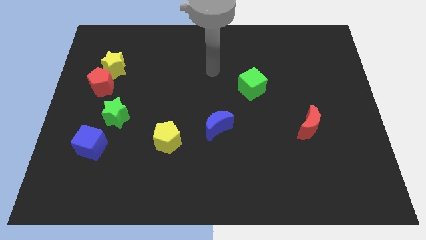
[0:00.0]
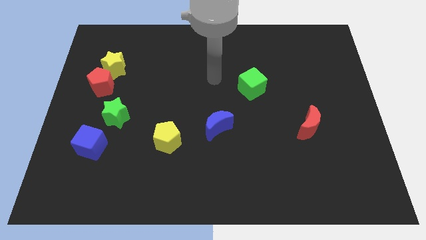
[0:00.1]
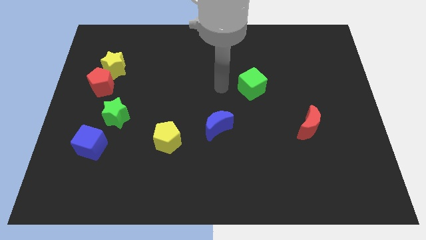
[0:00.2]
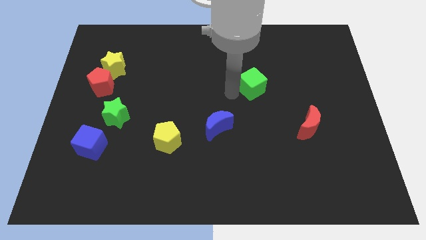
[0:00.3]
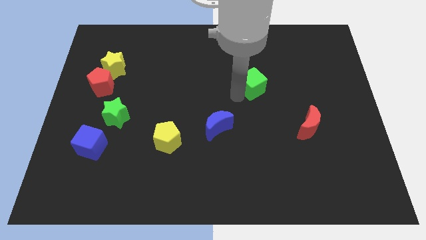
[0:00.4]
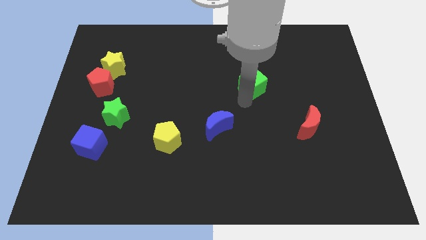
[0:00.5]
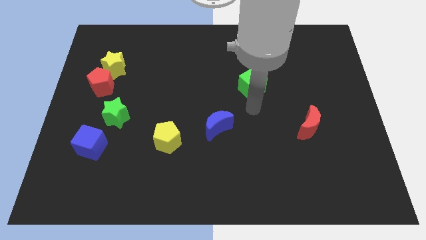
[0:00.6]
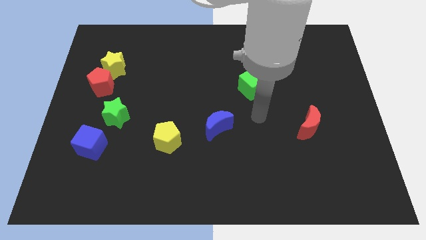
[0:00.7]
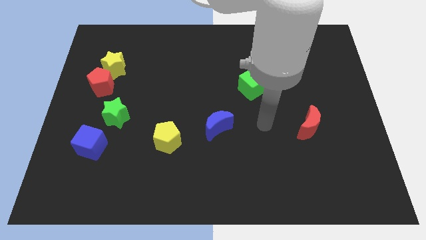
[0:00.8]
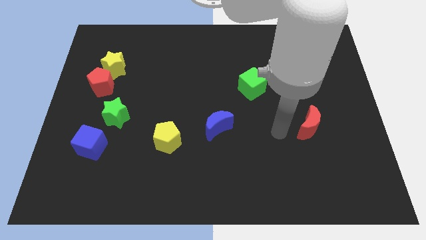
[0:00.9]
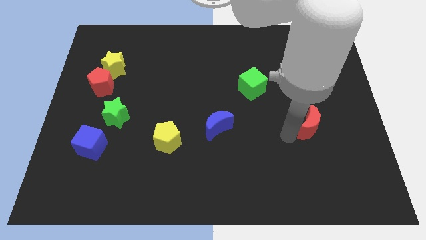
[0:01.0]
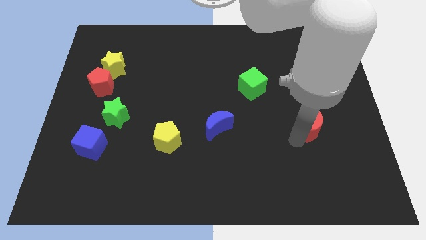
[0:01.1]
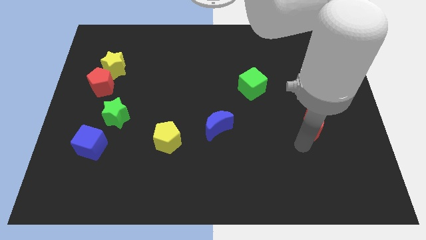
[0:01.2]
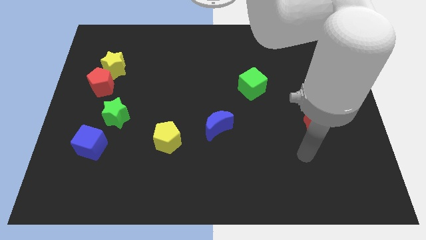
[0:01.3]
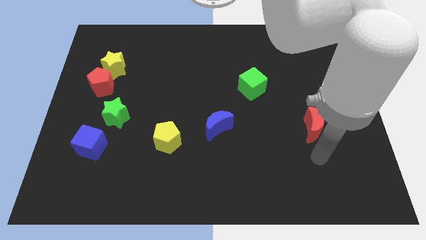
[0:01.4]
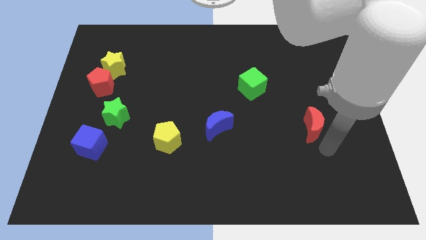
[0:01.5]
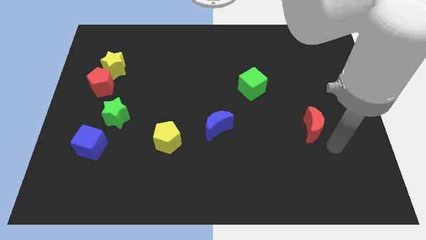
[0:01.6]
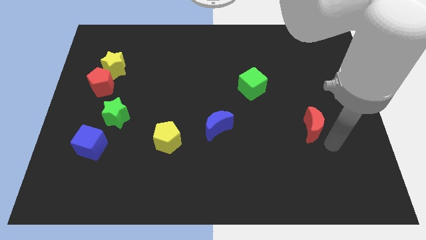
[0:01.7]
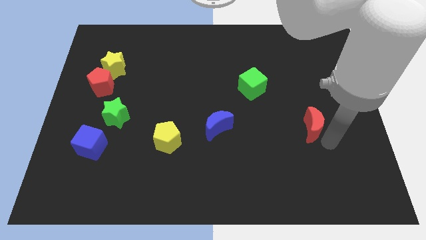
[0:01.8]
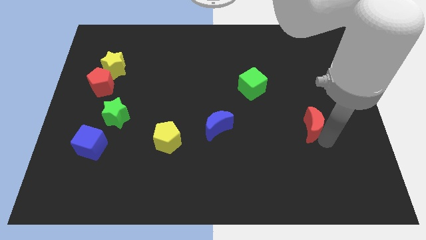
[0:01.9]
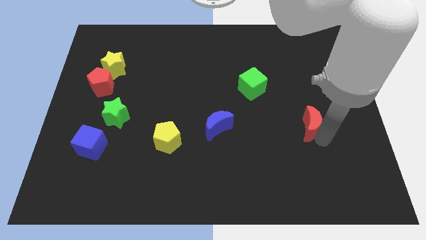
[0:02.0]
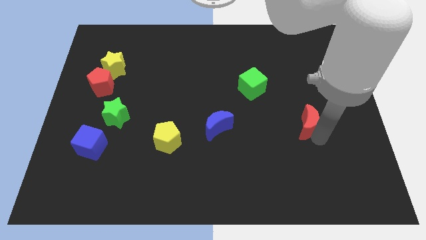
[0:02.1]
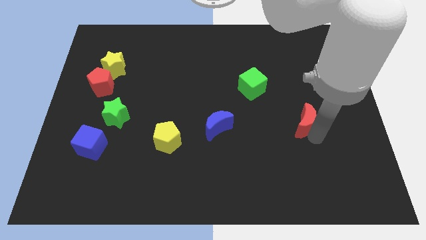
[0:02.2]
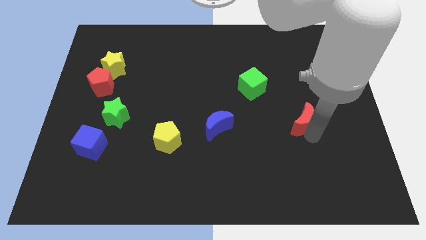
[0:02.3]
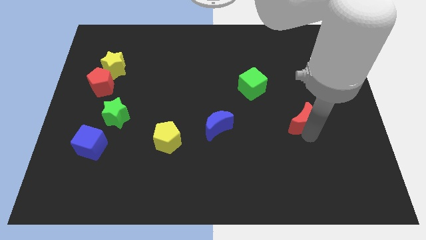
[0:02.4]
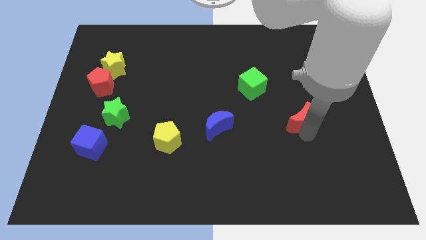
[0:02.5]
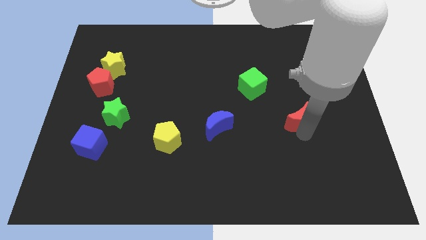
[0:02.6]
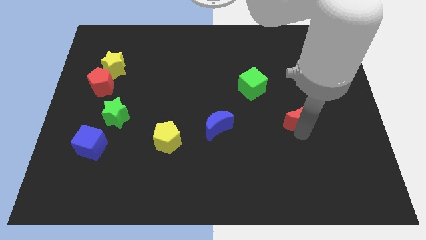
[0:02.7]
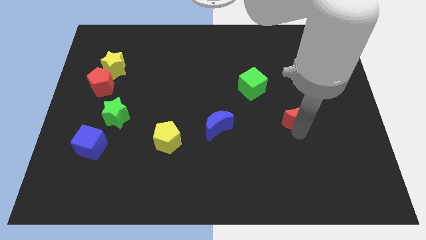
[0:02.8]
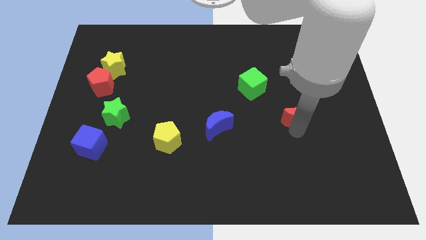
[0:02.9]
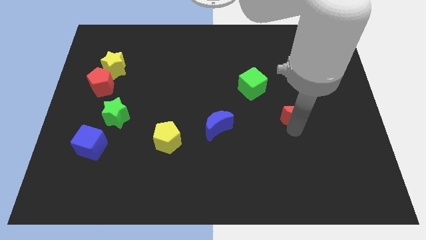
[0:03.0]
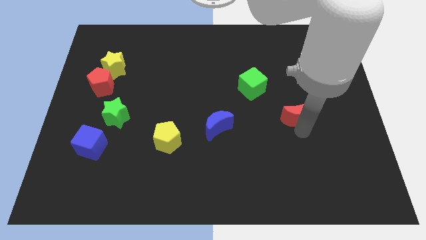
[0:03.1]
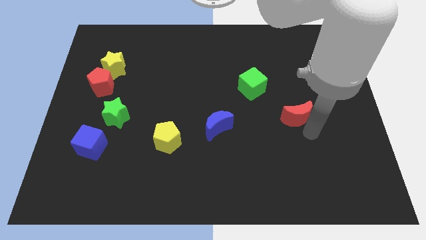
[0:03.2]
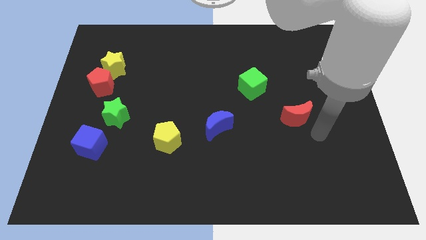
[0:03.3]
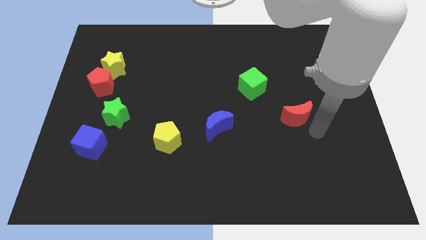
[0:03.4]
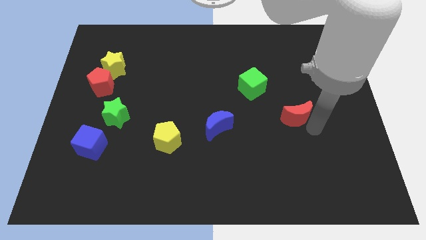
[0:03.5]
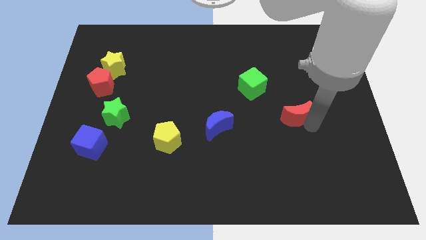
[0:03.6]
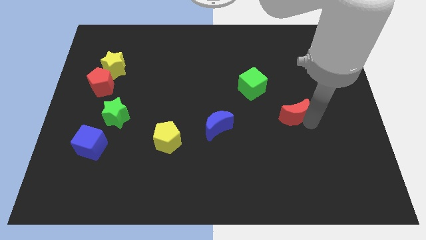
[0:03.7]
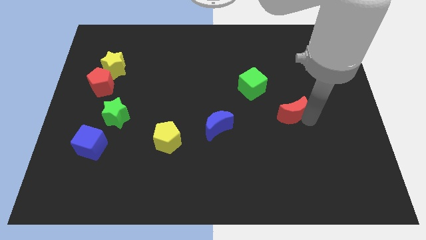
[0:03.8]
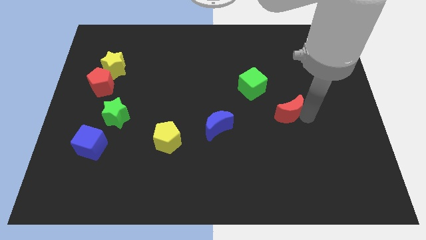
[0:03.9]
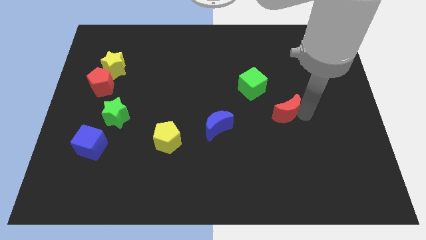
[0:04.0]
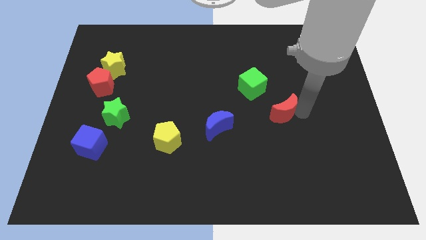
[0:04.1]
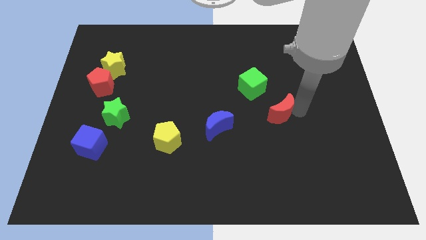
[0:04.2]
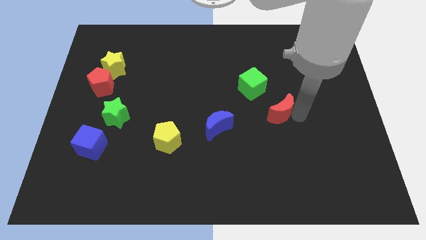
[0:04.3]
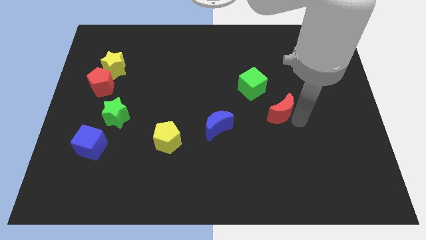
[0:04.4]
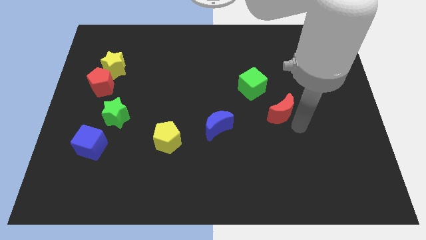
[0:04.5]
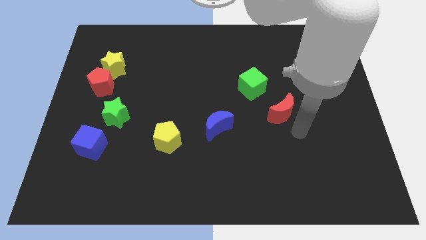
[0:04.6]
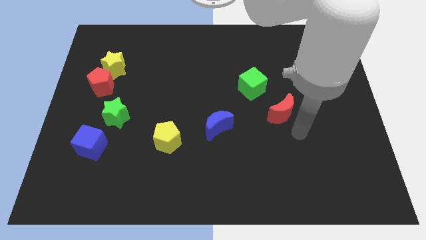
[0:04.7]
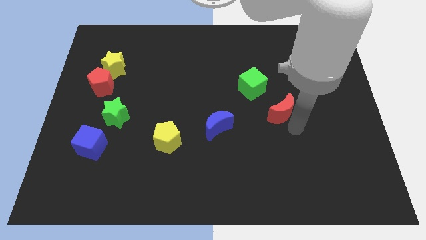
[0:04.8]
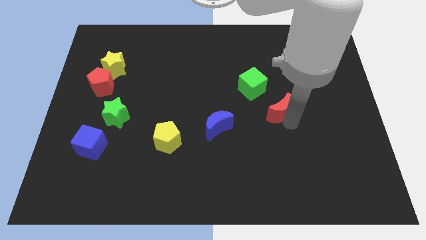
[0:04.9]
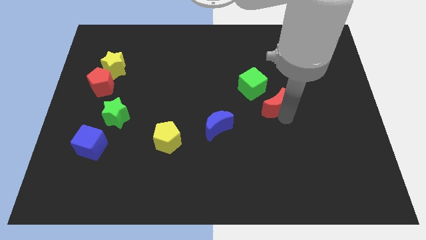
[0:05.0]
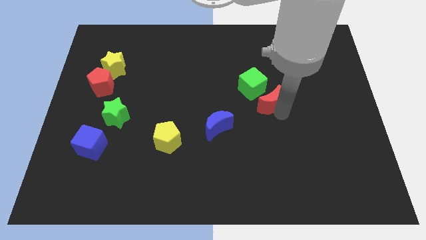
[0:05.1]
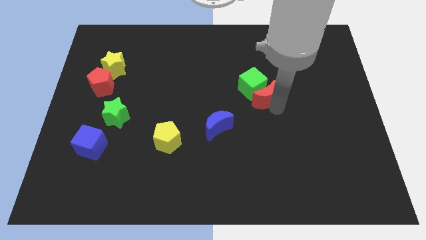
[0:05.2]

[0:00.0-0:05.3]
push the red moon to the green cube

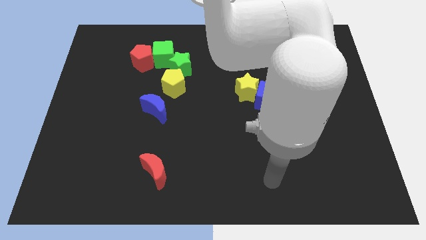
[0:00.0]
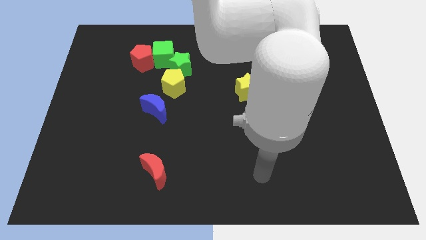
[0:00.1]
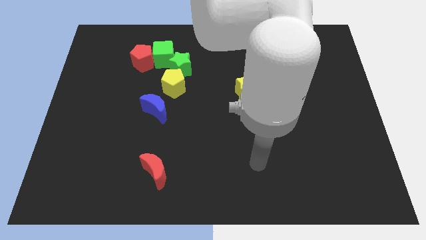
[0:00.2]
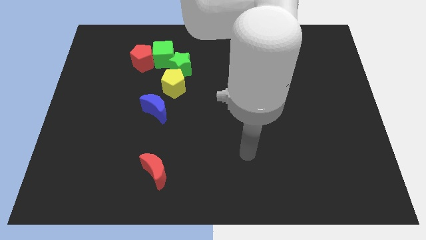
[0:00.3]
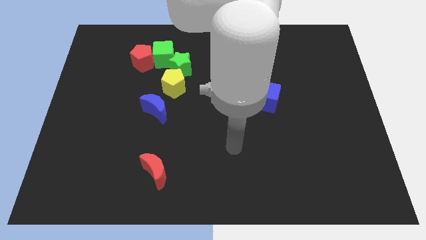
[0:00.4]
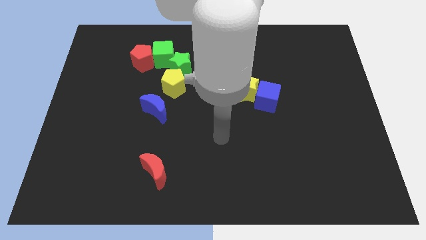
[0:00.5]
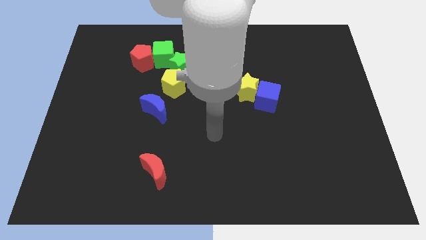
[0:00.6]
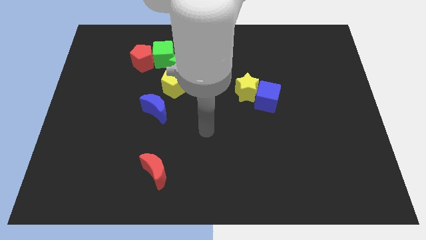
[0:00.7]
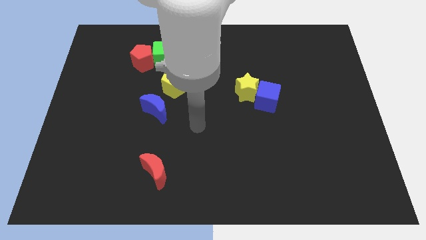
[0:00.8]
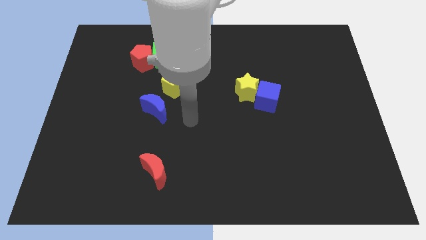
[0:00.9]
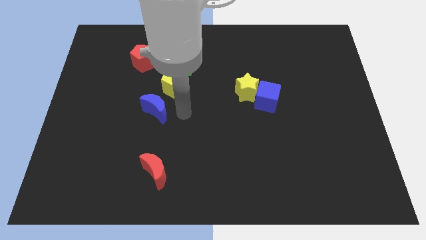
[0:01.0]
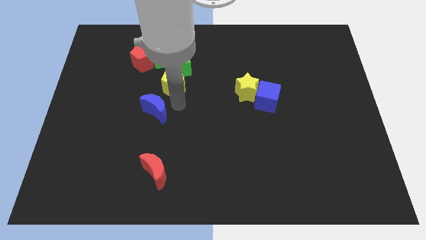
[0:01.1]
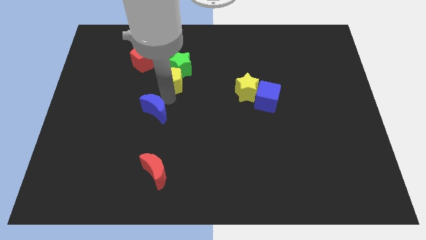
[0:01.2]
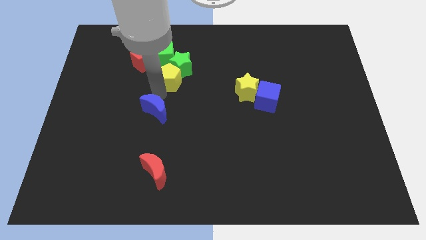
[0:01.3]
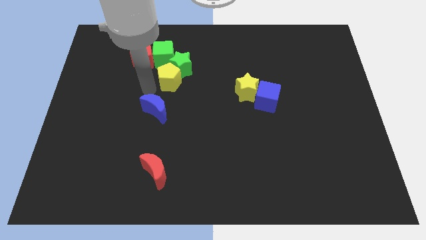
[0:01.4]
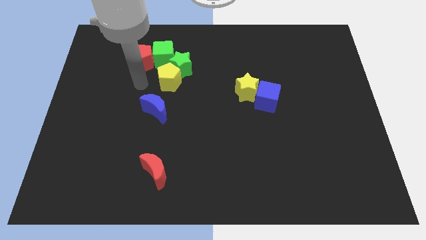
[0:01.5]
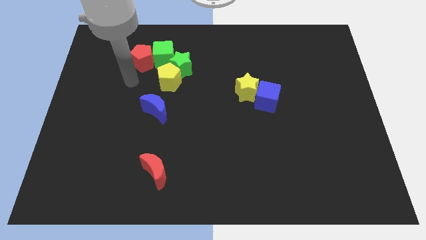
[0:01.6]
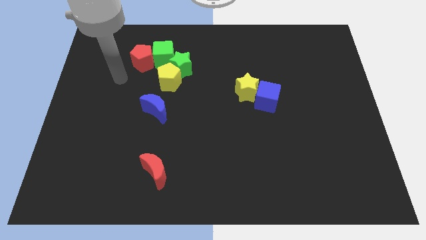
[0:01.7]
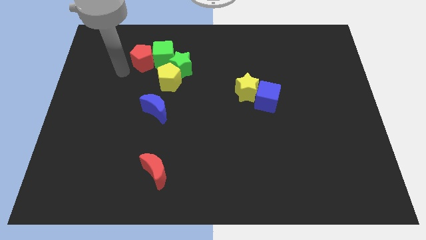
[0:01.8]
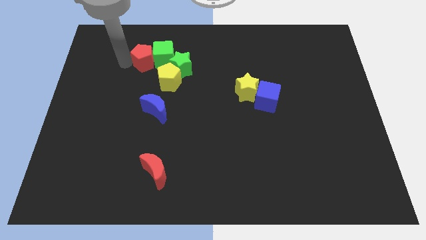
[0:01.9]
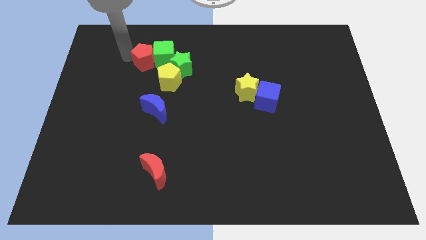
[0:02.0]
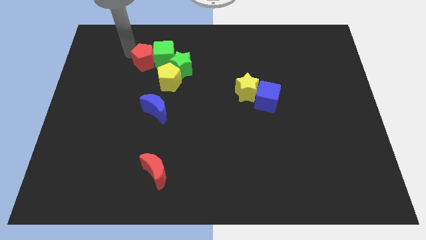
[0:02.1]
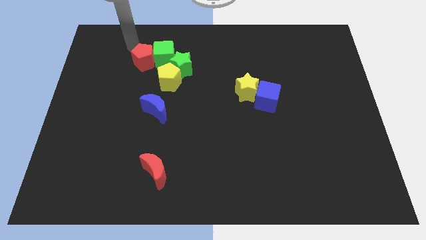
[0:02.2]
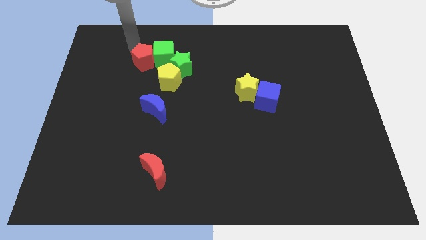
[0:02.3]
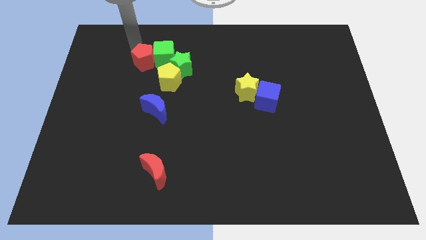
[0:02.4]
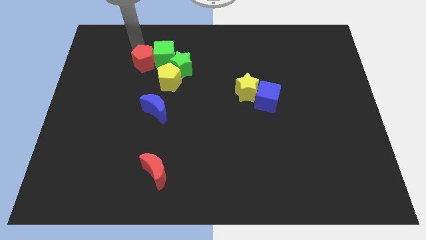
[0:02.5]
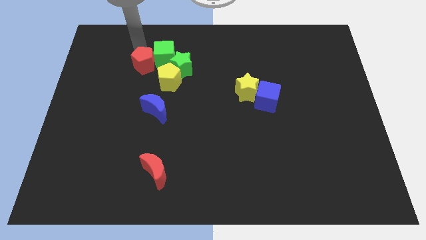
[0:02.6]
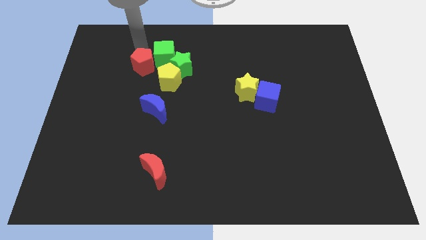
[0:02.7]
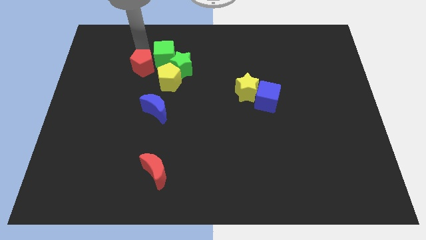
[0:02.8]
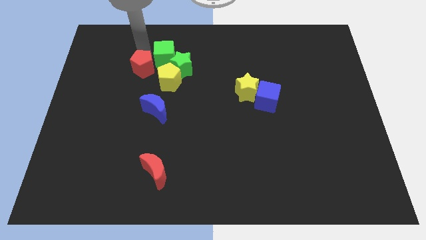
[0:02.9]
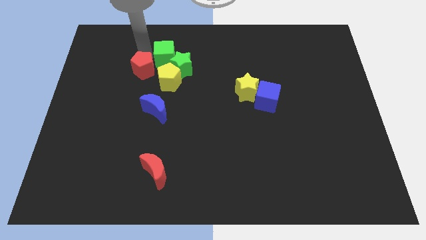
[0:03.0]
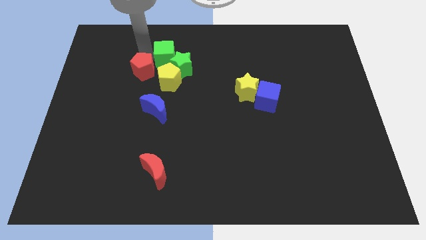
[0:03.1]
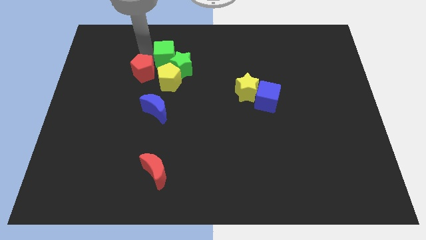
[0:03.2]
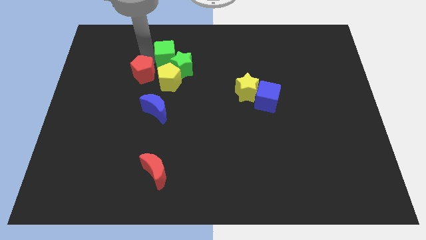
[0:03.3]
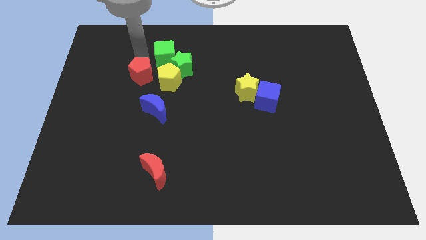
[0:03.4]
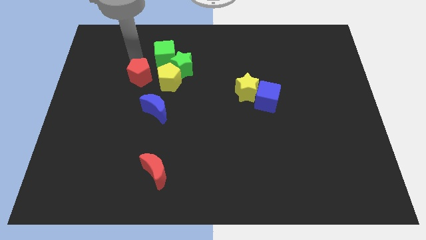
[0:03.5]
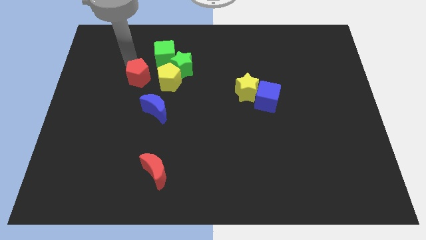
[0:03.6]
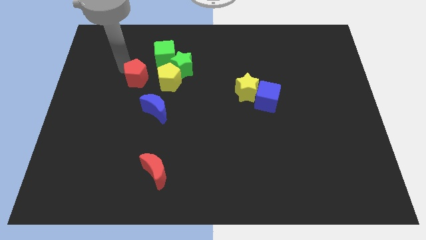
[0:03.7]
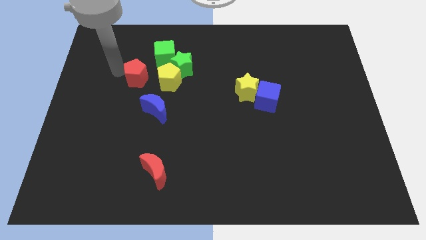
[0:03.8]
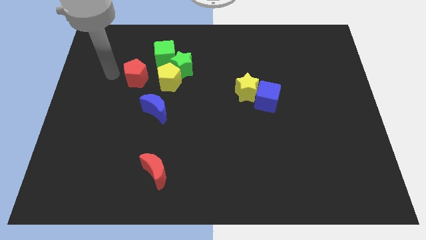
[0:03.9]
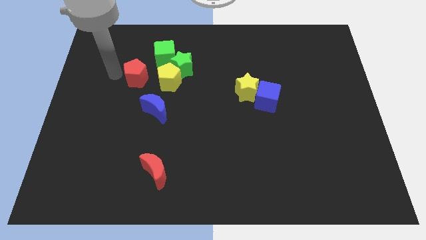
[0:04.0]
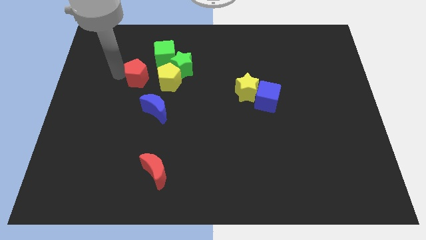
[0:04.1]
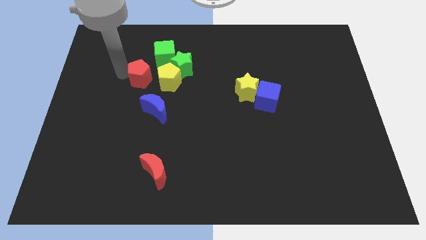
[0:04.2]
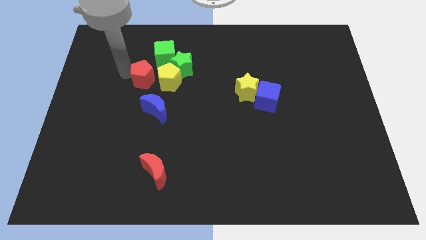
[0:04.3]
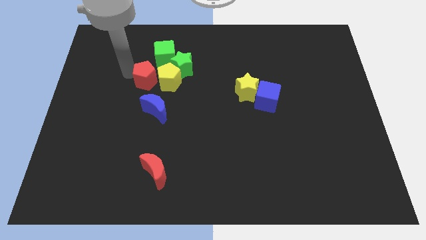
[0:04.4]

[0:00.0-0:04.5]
move the red pentagon towards the yellow pentagon
